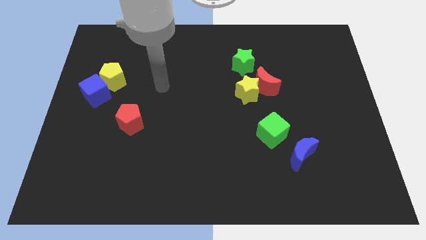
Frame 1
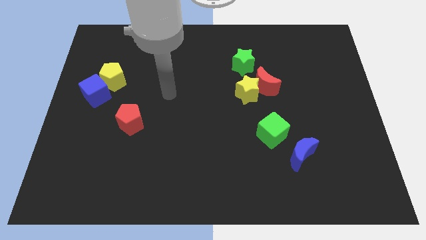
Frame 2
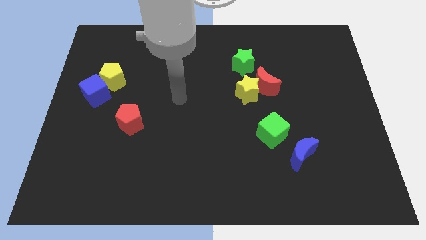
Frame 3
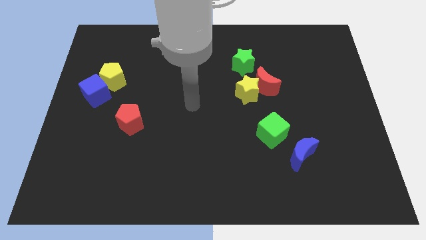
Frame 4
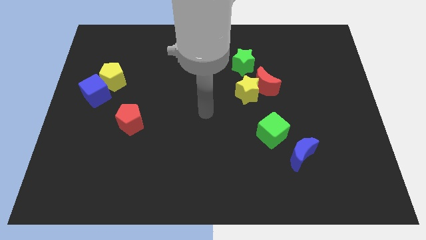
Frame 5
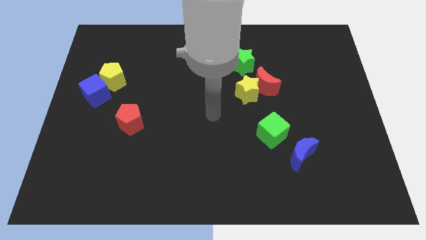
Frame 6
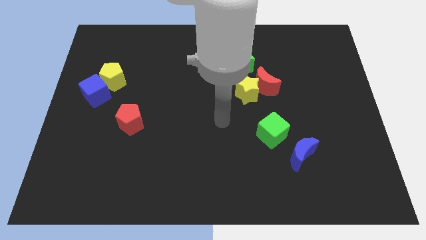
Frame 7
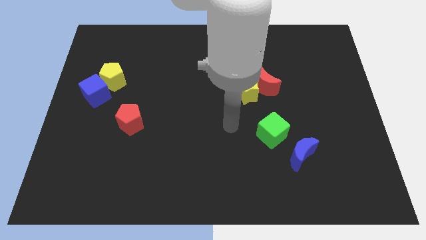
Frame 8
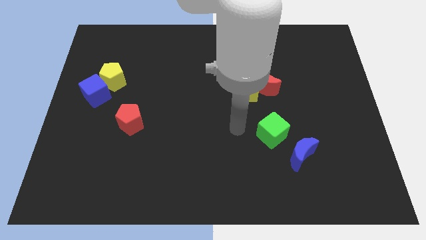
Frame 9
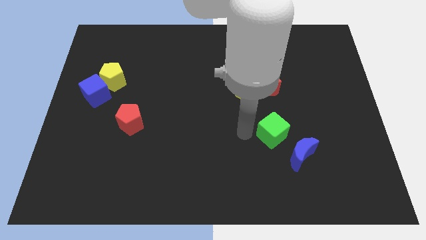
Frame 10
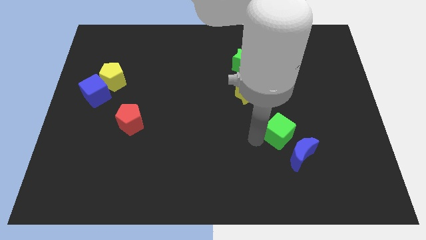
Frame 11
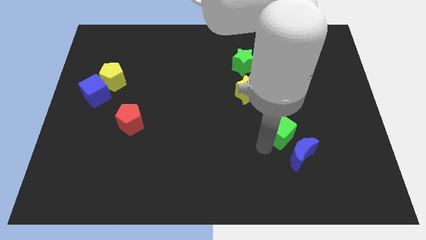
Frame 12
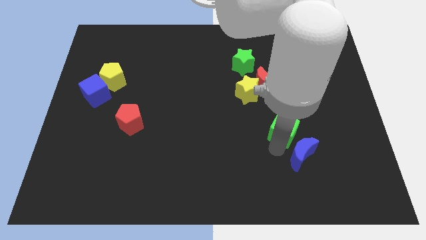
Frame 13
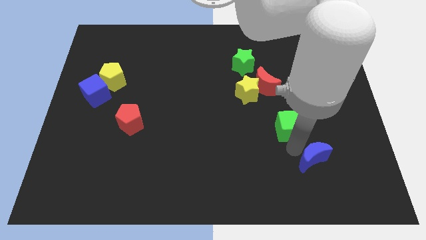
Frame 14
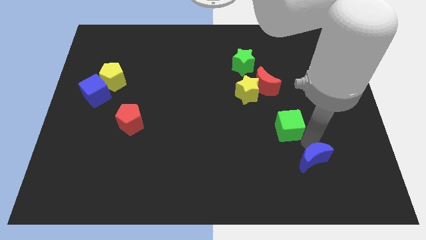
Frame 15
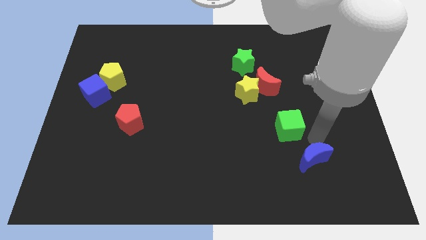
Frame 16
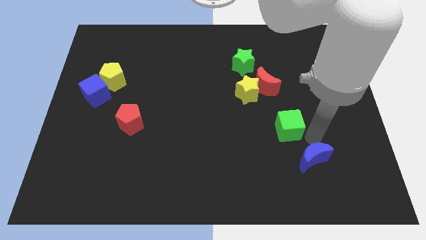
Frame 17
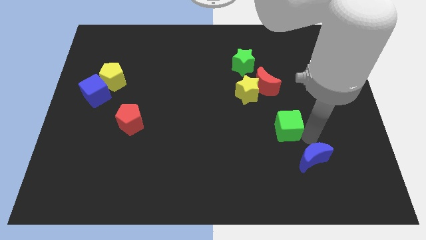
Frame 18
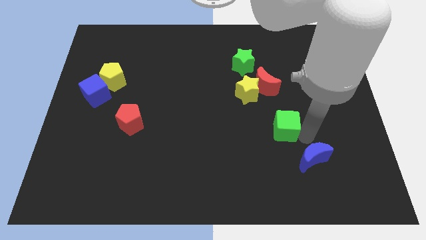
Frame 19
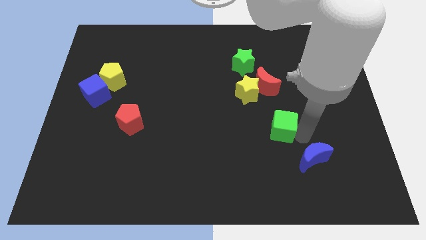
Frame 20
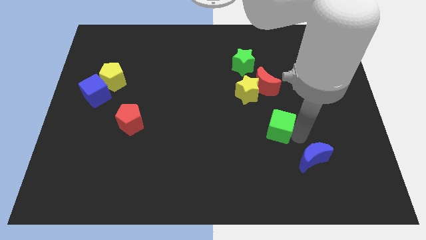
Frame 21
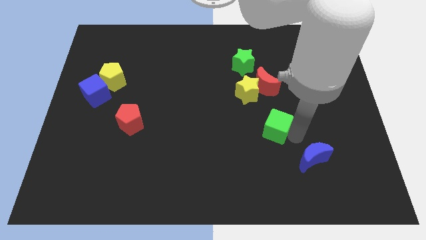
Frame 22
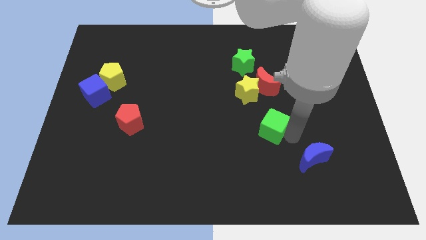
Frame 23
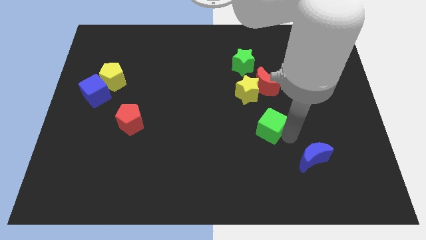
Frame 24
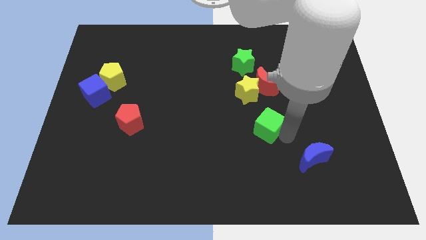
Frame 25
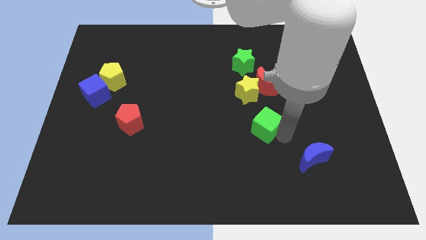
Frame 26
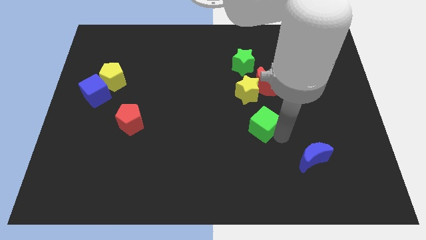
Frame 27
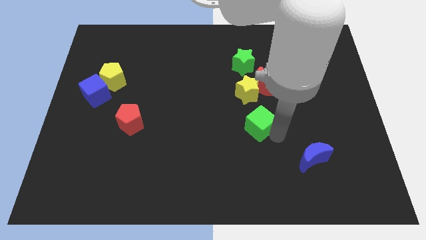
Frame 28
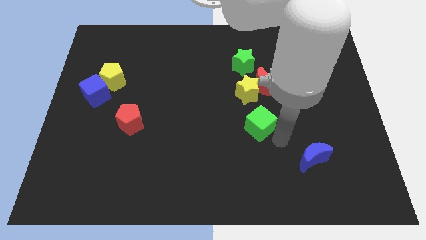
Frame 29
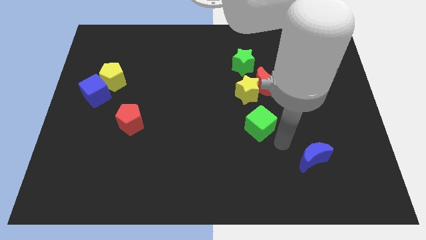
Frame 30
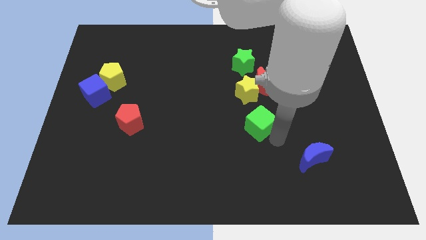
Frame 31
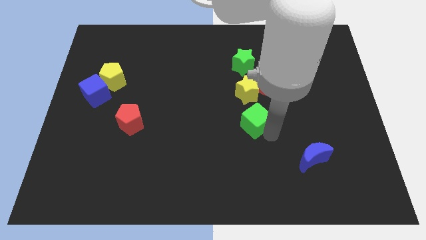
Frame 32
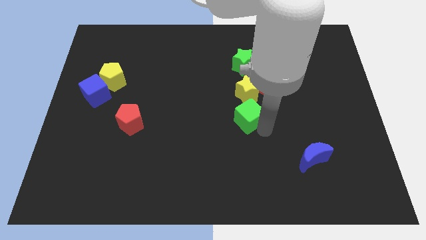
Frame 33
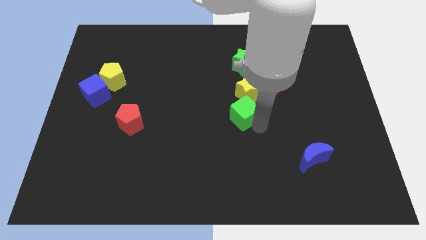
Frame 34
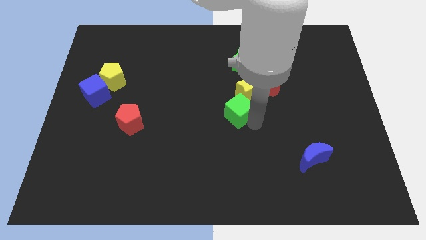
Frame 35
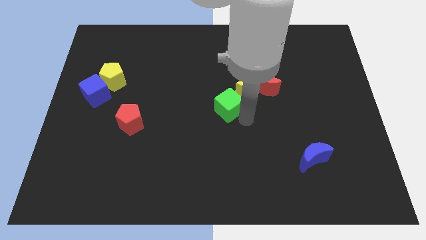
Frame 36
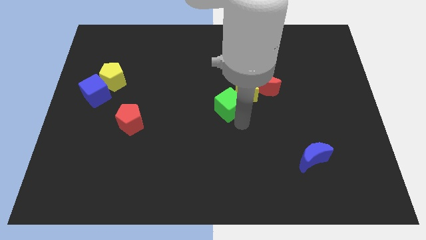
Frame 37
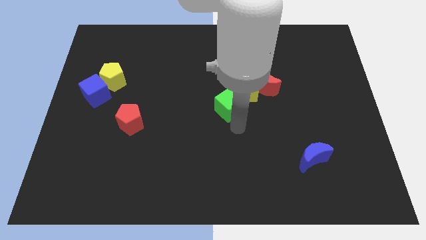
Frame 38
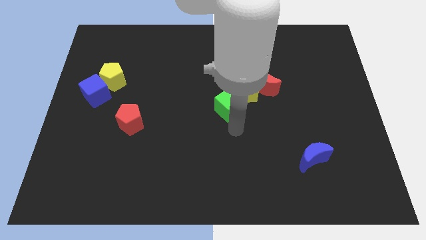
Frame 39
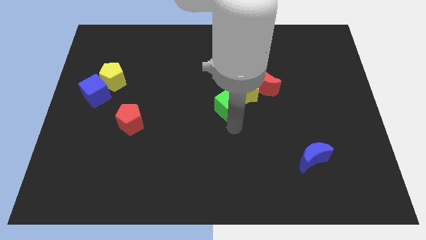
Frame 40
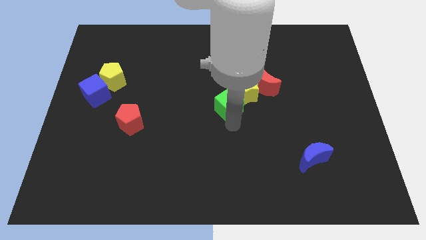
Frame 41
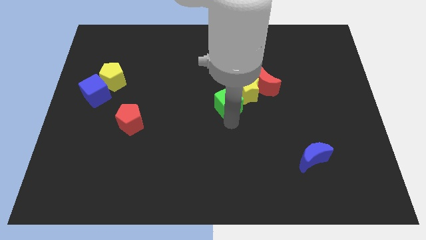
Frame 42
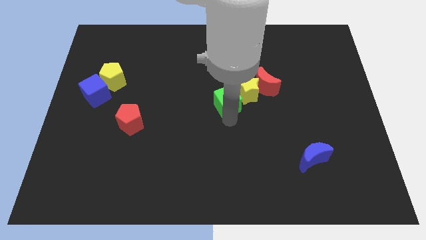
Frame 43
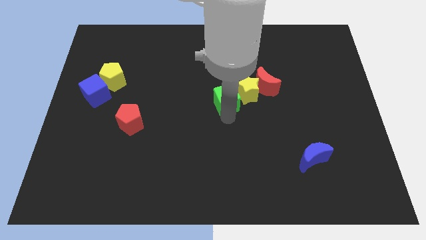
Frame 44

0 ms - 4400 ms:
put the green cube to the left side of the red moon

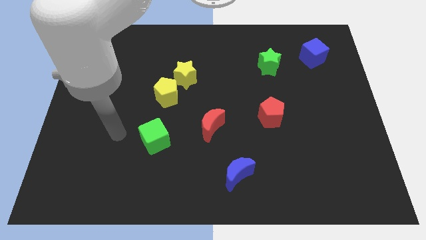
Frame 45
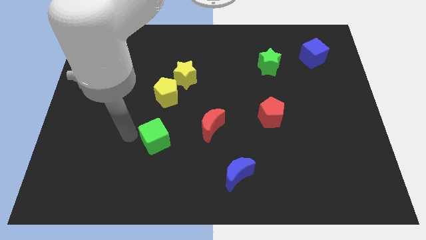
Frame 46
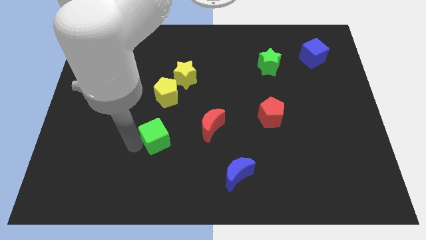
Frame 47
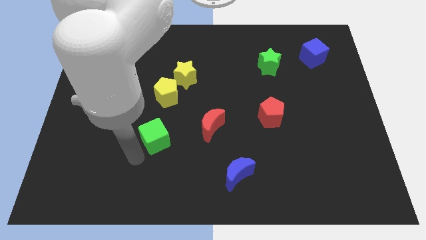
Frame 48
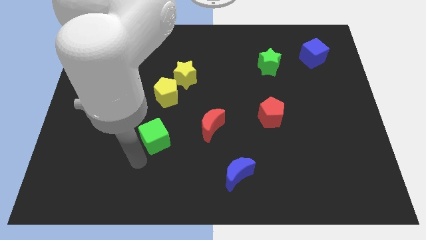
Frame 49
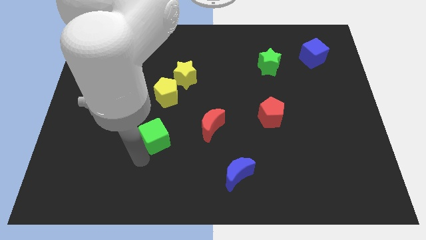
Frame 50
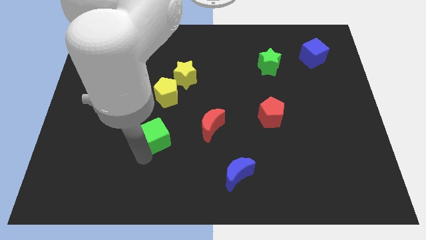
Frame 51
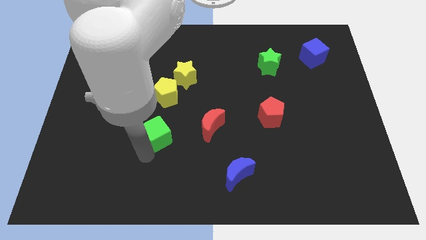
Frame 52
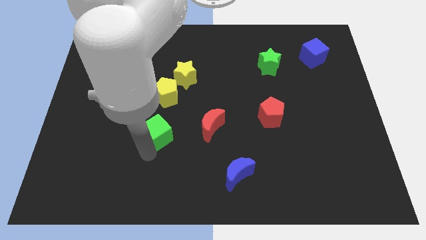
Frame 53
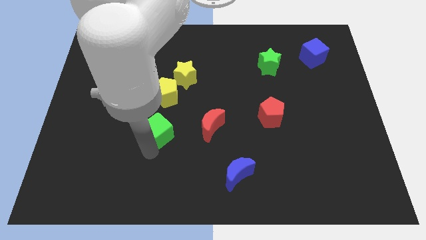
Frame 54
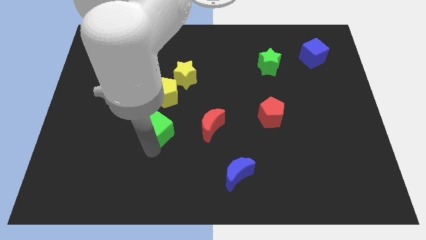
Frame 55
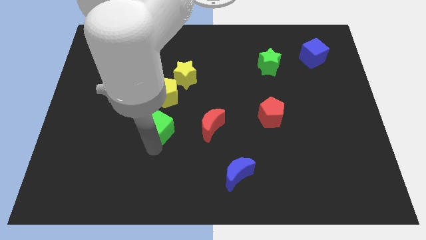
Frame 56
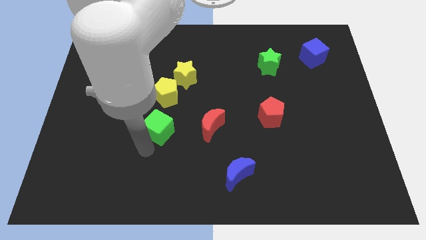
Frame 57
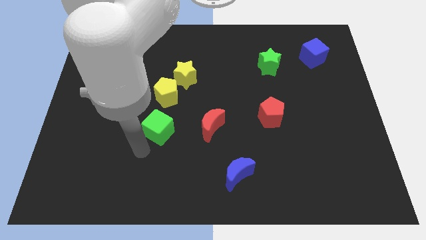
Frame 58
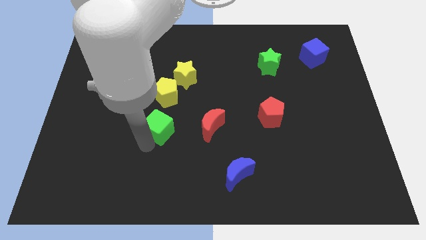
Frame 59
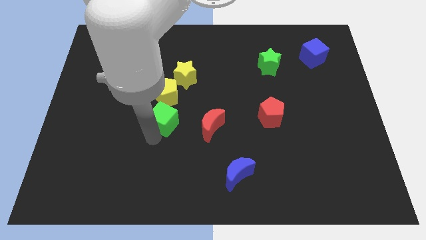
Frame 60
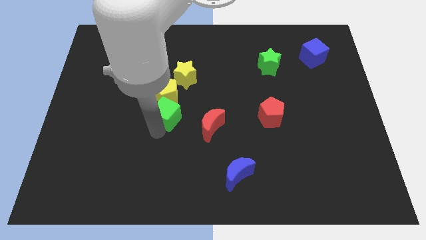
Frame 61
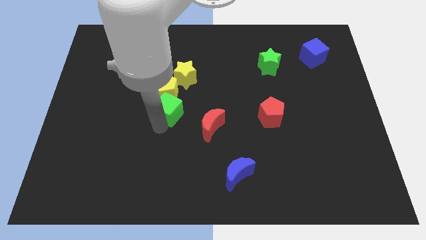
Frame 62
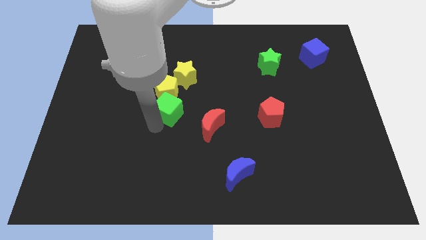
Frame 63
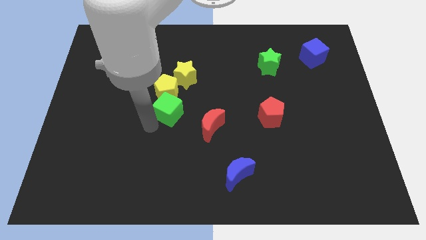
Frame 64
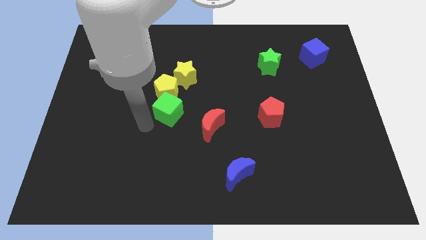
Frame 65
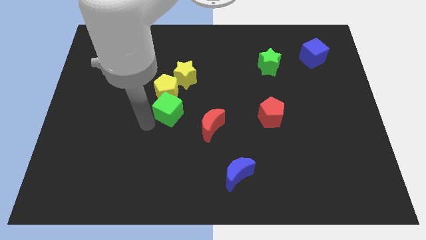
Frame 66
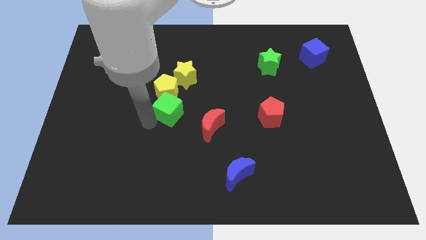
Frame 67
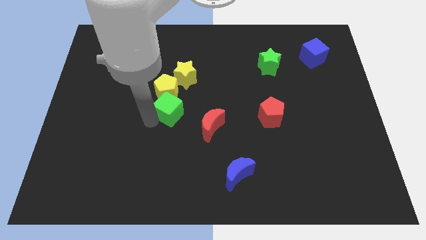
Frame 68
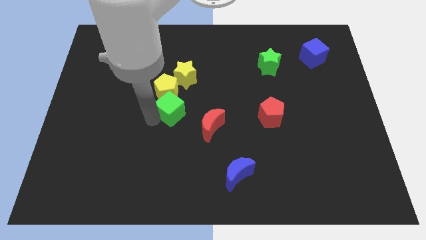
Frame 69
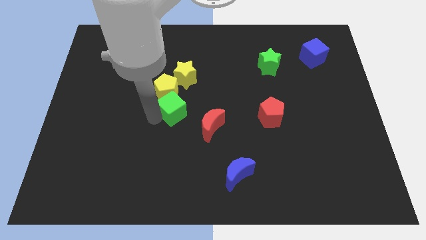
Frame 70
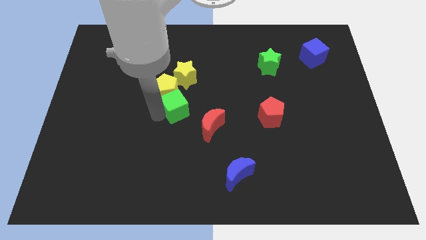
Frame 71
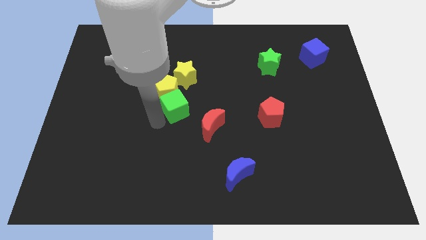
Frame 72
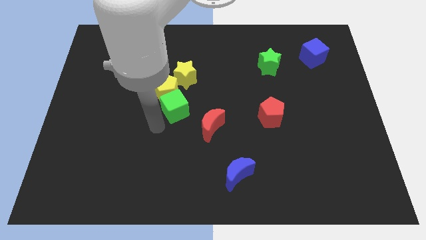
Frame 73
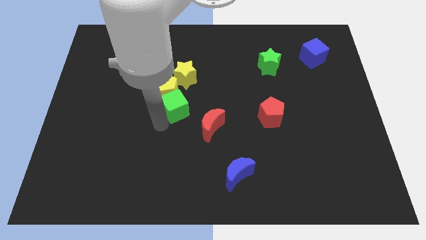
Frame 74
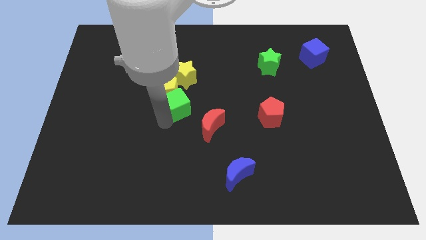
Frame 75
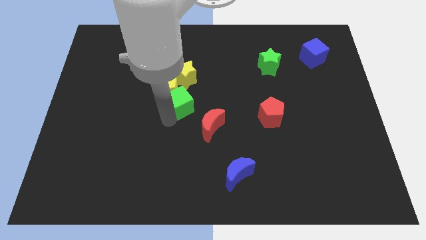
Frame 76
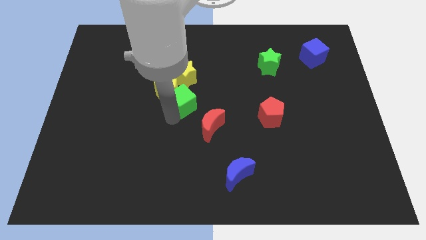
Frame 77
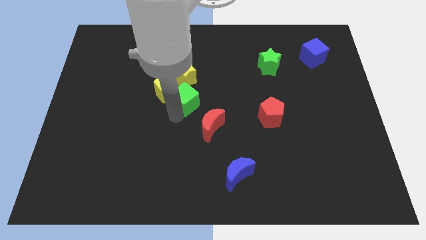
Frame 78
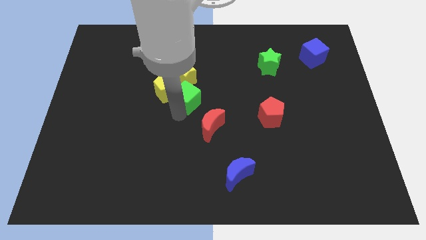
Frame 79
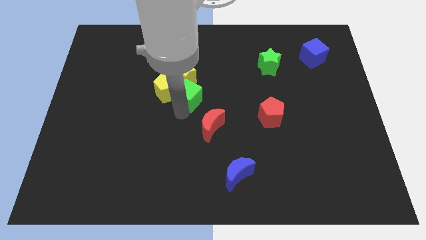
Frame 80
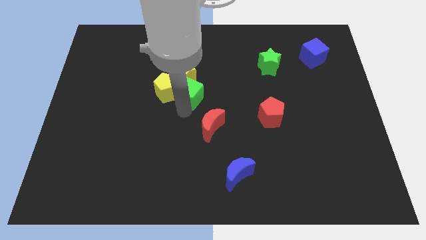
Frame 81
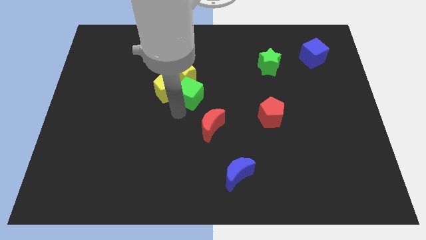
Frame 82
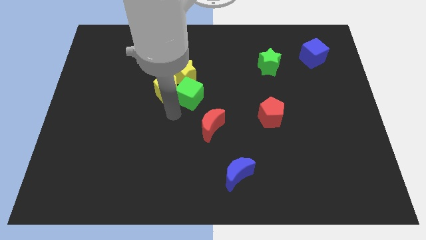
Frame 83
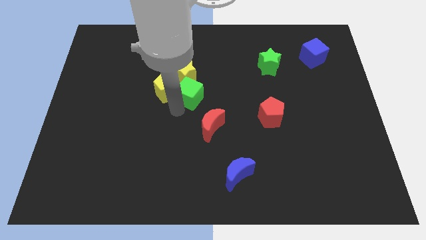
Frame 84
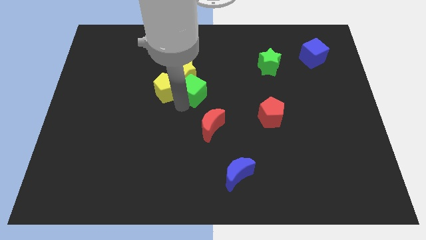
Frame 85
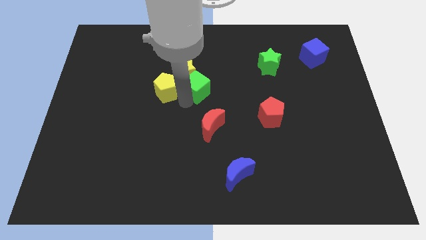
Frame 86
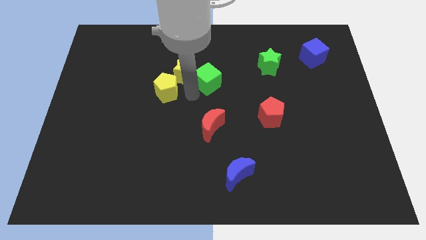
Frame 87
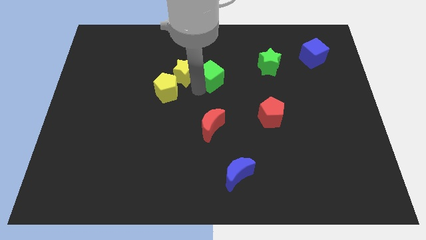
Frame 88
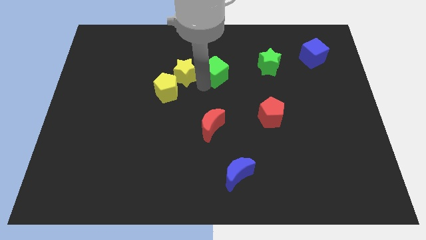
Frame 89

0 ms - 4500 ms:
move the green cube left of the green star
